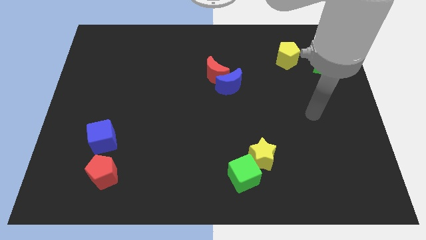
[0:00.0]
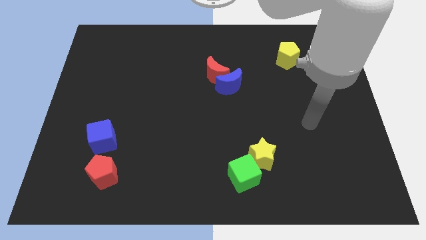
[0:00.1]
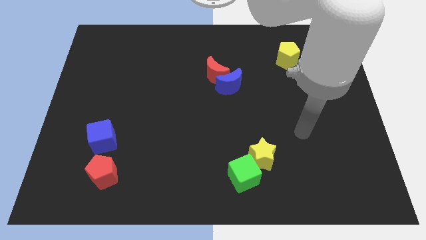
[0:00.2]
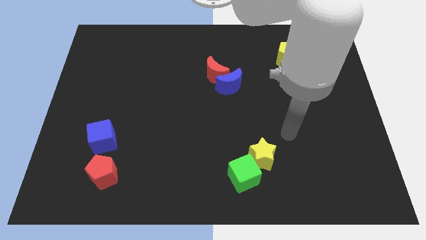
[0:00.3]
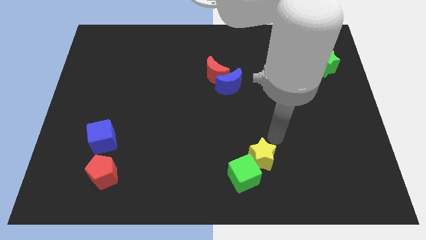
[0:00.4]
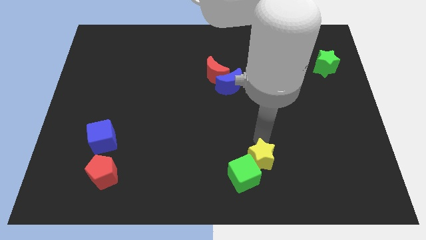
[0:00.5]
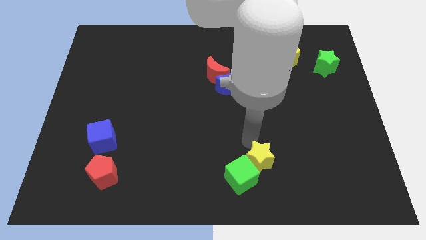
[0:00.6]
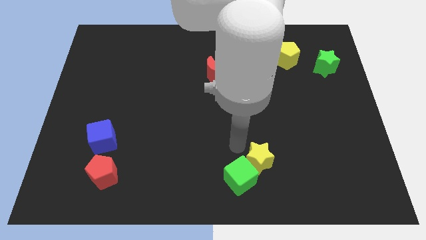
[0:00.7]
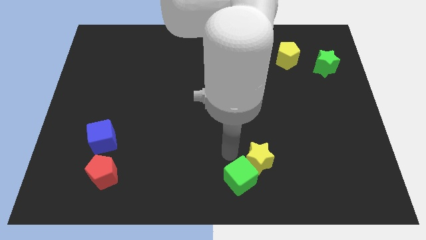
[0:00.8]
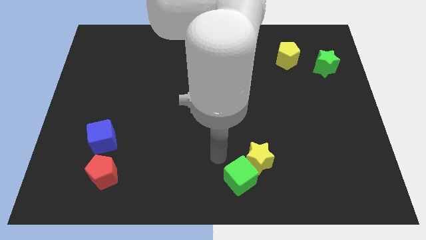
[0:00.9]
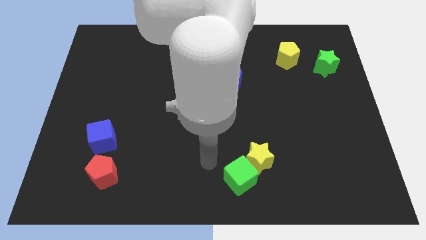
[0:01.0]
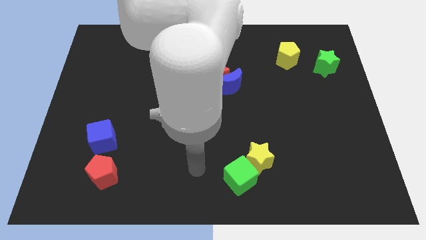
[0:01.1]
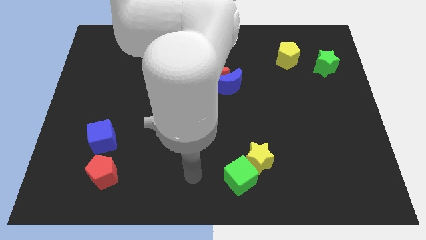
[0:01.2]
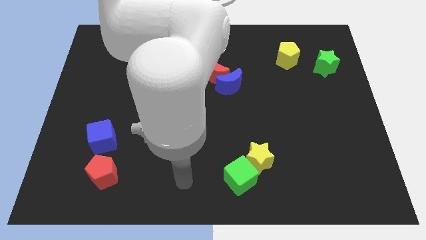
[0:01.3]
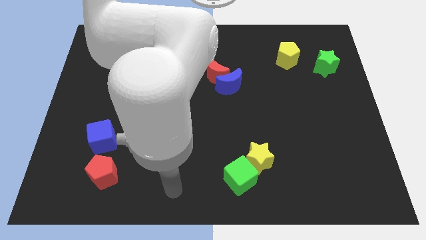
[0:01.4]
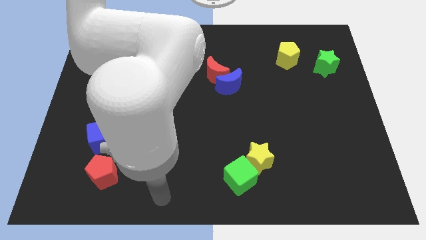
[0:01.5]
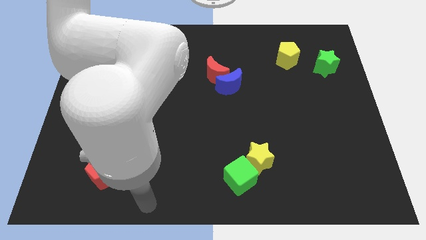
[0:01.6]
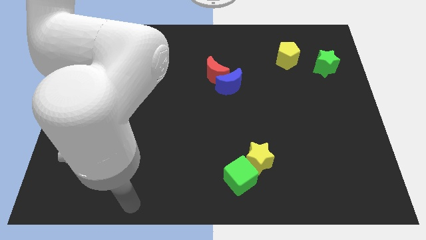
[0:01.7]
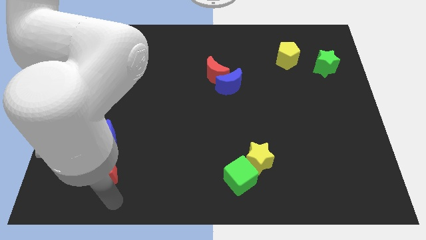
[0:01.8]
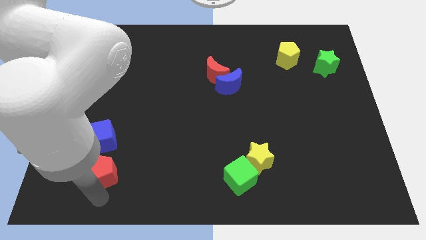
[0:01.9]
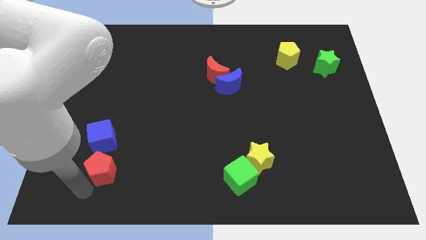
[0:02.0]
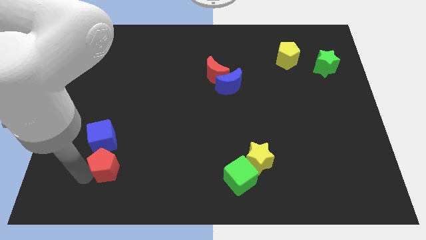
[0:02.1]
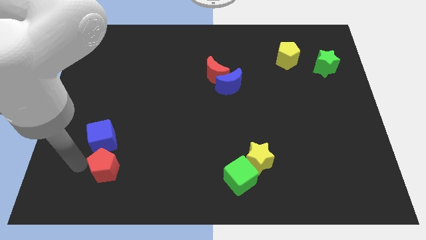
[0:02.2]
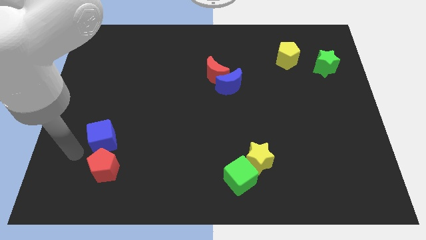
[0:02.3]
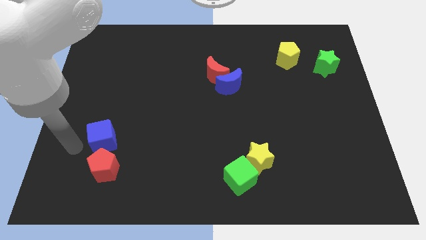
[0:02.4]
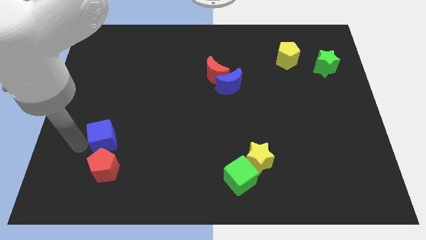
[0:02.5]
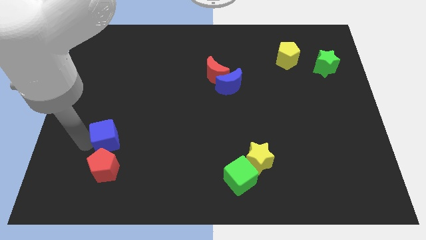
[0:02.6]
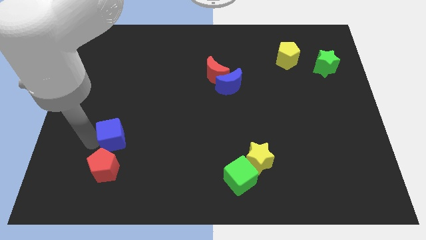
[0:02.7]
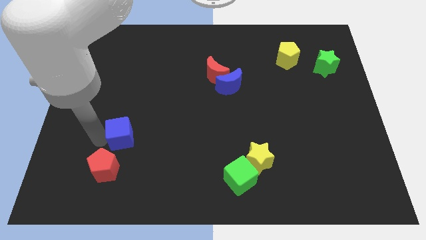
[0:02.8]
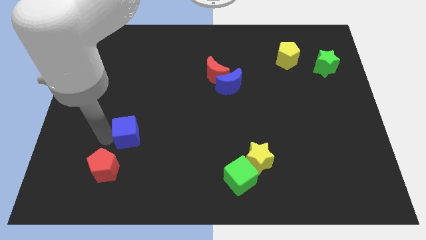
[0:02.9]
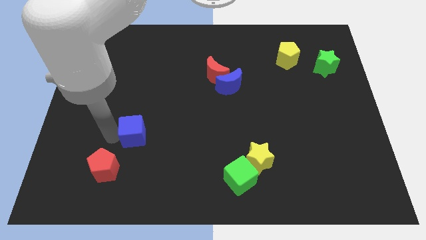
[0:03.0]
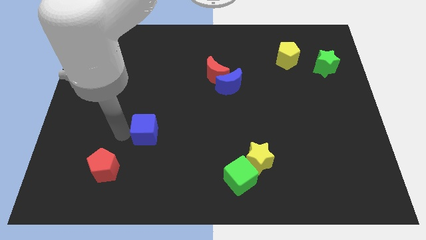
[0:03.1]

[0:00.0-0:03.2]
slide the blue cube to the right a little

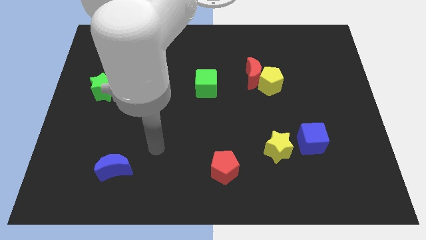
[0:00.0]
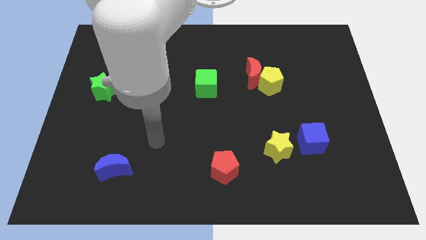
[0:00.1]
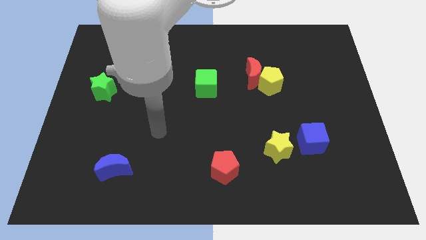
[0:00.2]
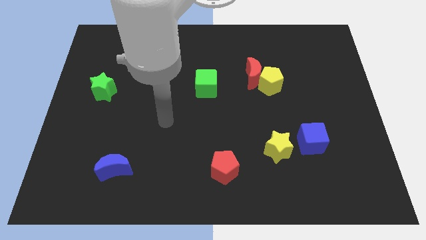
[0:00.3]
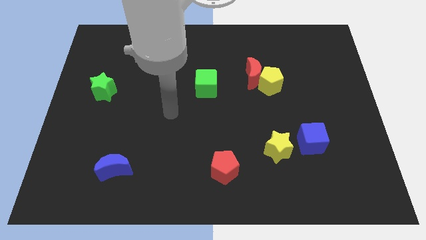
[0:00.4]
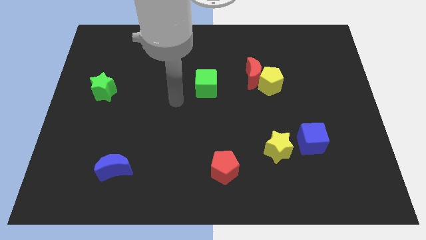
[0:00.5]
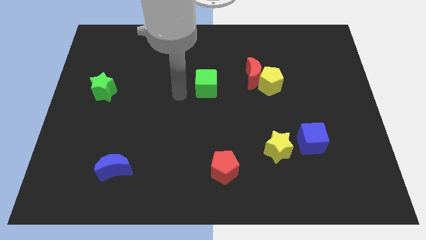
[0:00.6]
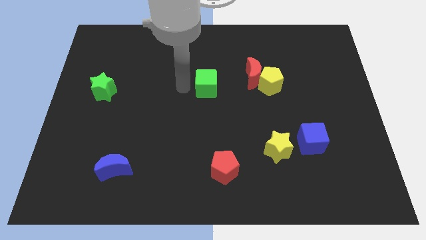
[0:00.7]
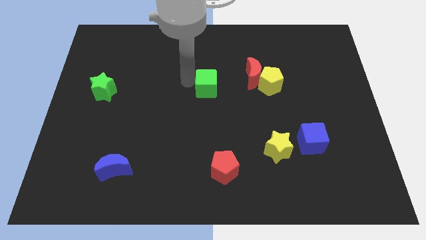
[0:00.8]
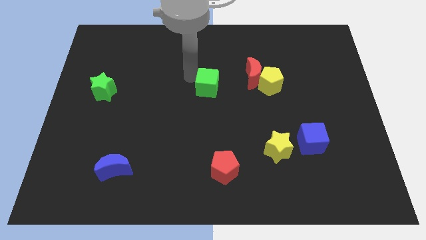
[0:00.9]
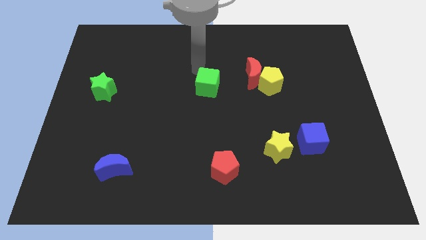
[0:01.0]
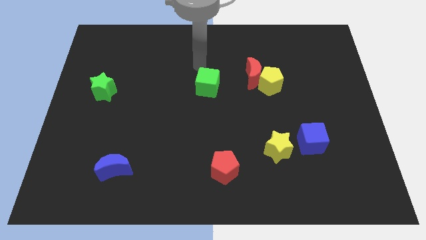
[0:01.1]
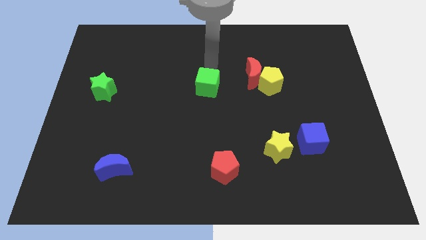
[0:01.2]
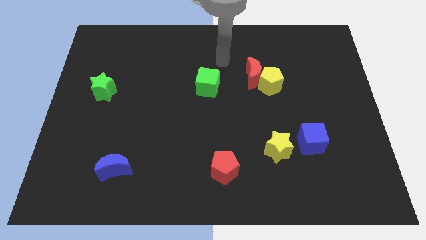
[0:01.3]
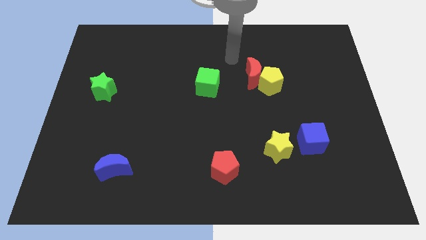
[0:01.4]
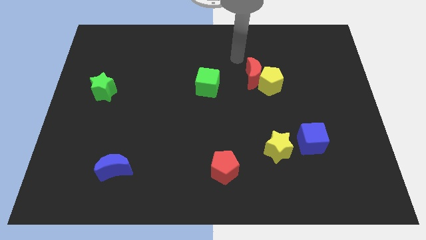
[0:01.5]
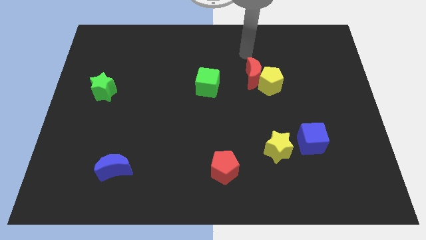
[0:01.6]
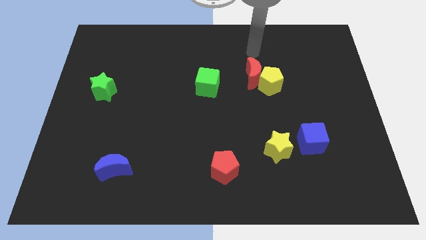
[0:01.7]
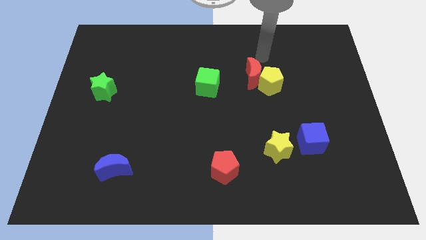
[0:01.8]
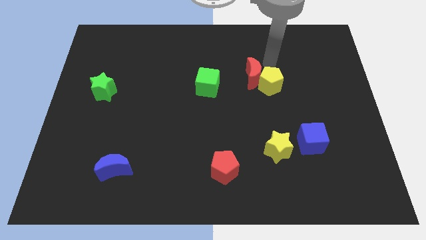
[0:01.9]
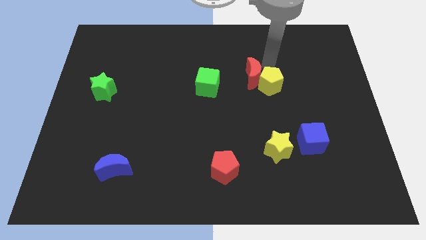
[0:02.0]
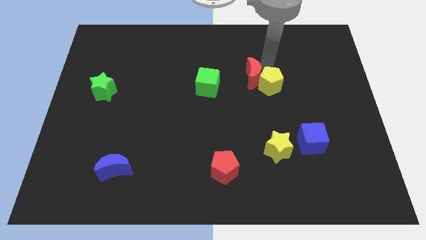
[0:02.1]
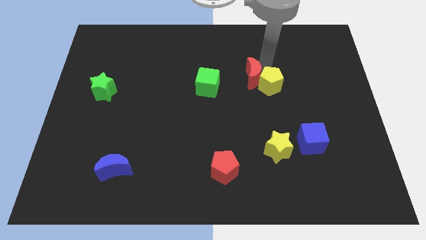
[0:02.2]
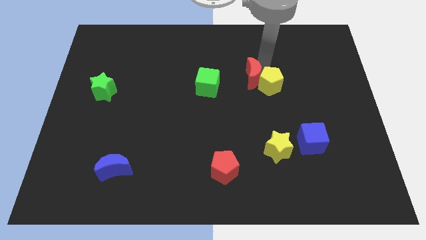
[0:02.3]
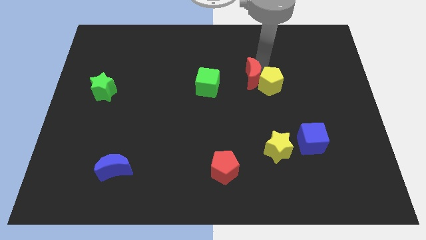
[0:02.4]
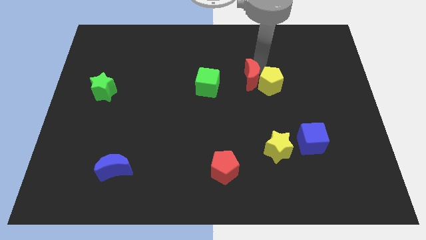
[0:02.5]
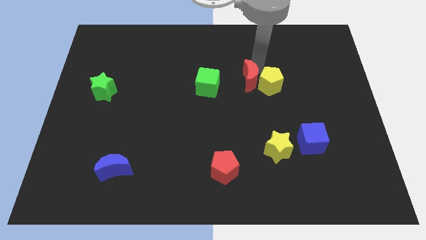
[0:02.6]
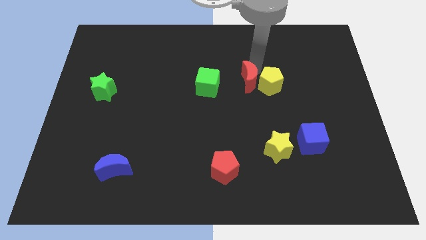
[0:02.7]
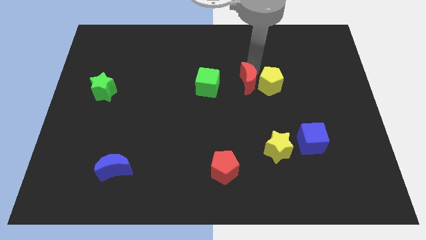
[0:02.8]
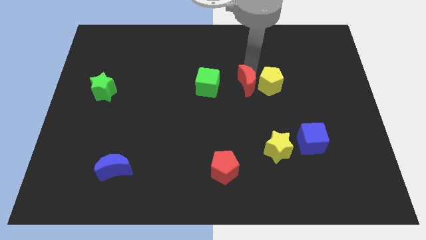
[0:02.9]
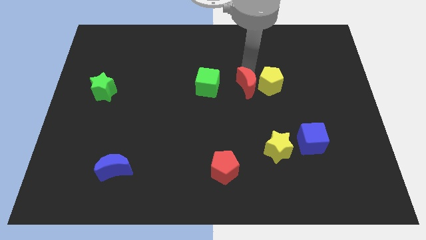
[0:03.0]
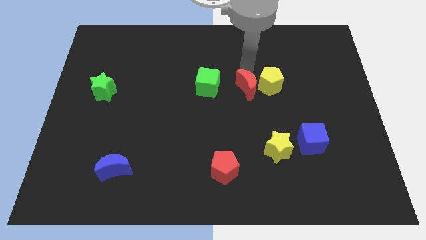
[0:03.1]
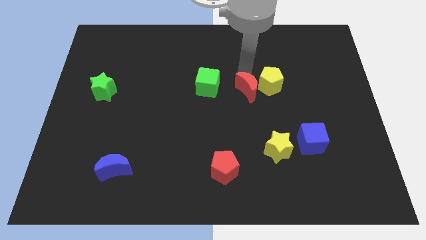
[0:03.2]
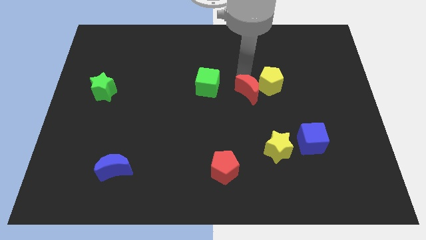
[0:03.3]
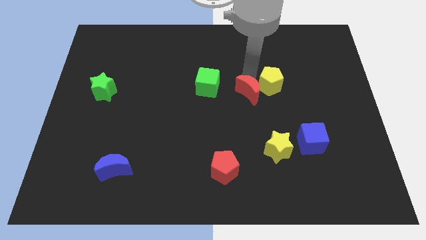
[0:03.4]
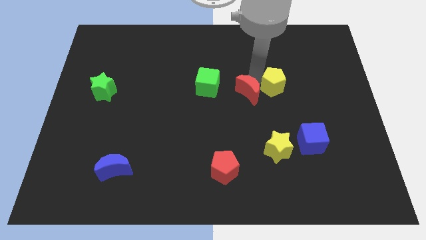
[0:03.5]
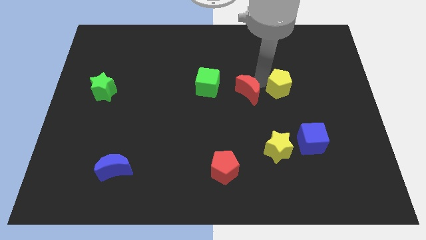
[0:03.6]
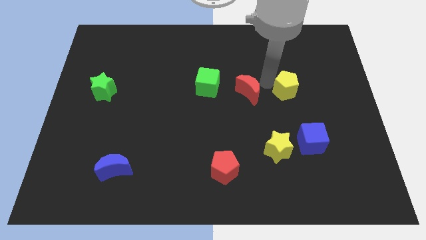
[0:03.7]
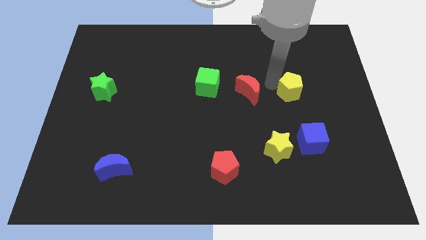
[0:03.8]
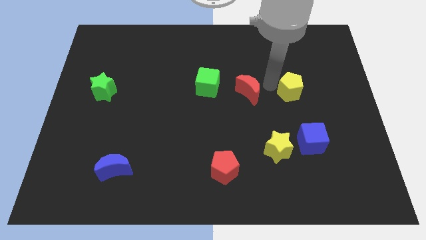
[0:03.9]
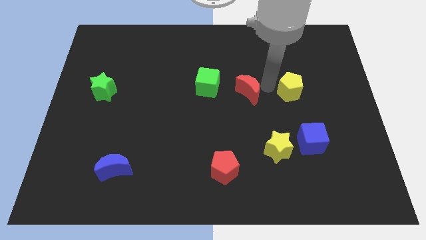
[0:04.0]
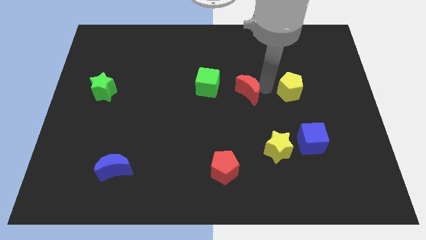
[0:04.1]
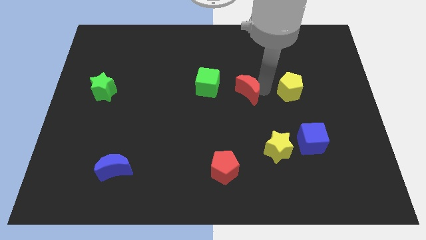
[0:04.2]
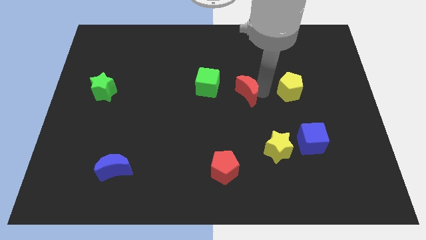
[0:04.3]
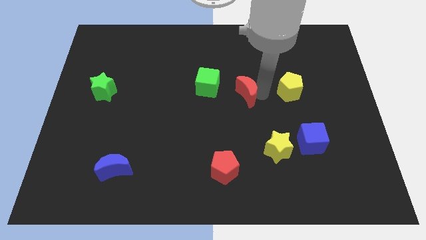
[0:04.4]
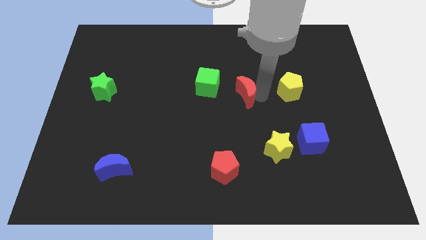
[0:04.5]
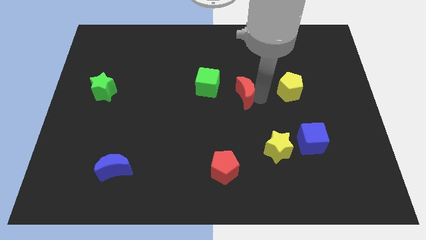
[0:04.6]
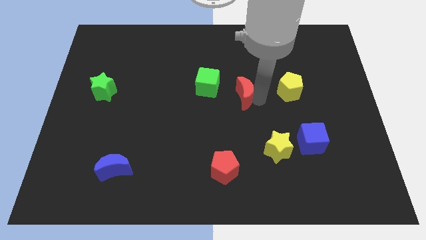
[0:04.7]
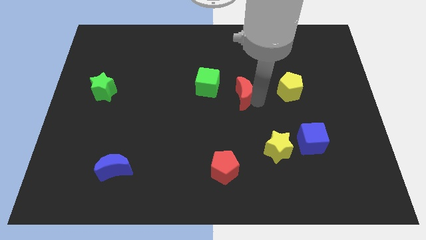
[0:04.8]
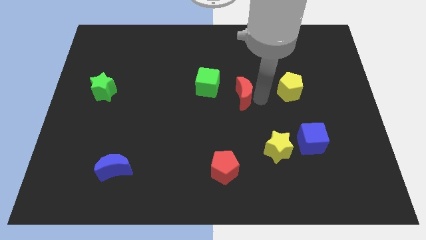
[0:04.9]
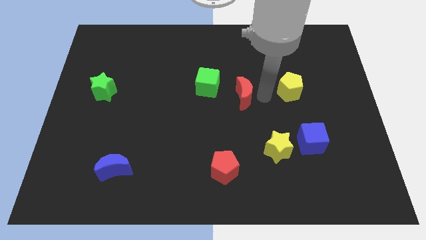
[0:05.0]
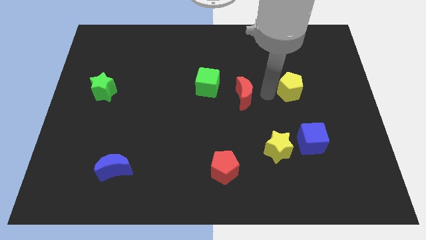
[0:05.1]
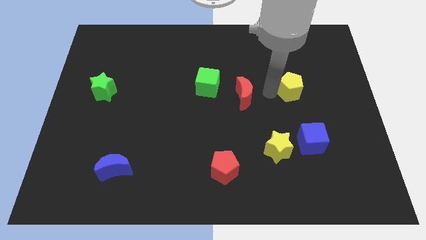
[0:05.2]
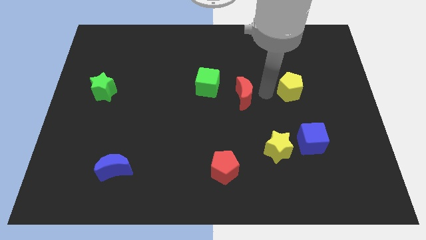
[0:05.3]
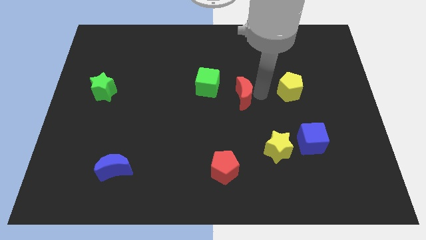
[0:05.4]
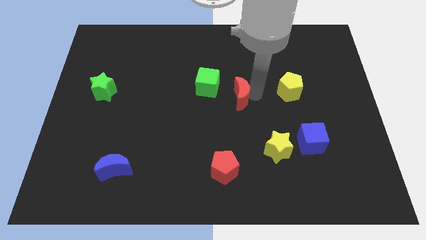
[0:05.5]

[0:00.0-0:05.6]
slightly move the red moon diagonally down and to the left
